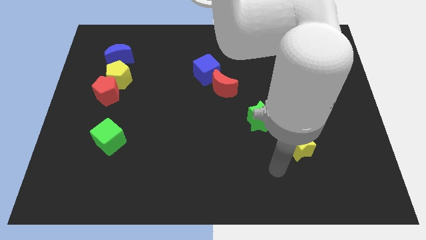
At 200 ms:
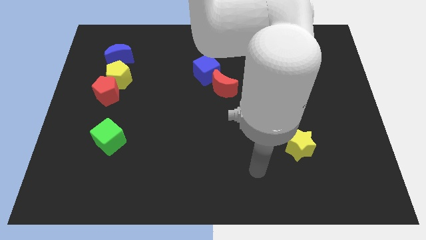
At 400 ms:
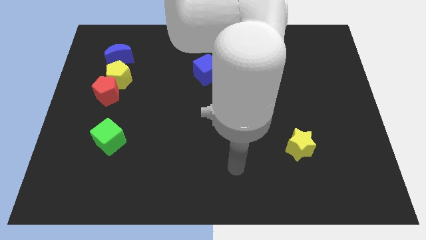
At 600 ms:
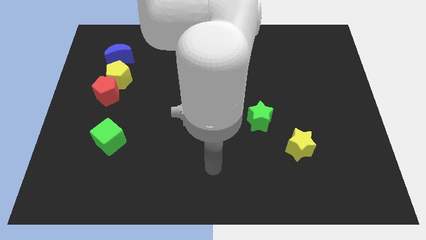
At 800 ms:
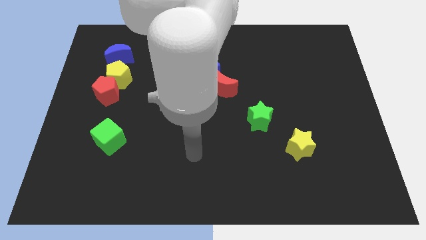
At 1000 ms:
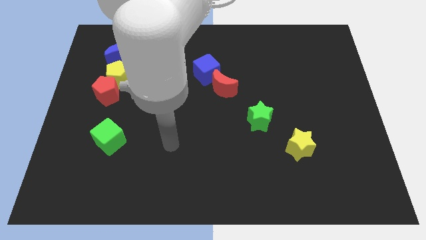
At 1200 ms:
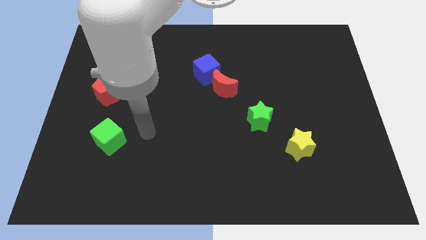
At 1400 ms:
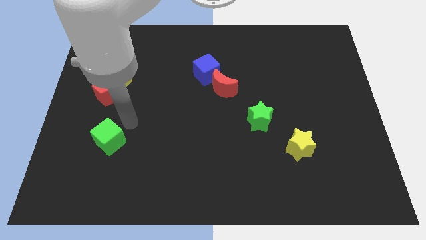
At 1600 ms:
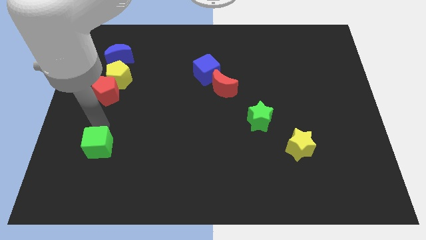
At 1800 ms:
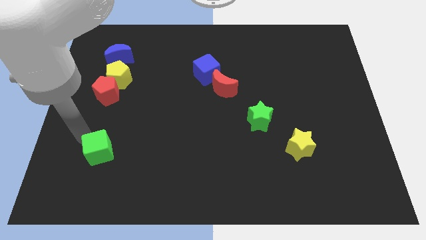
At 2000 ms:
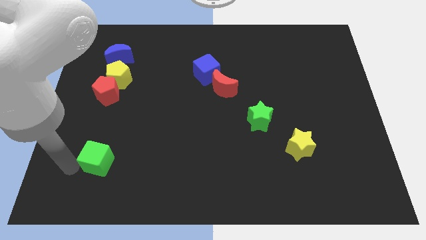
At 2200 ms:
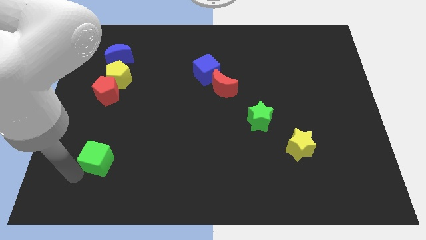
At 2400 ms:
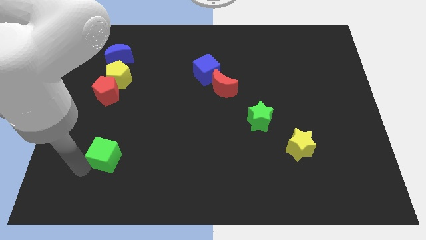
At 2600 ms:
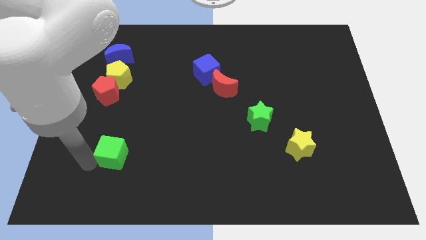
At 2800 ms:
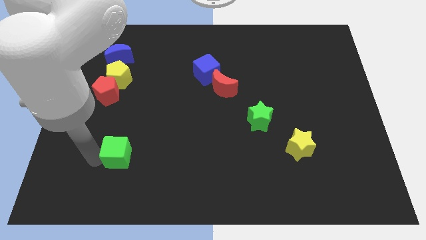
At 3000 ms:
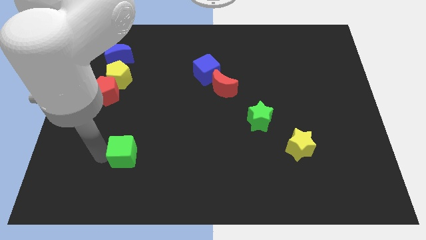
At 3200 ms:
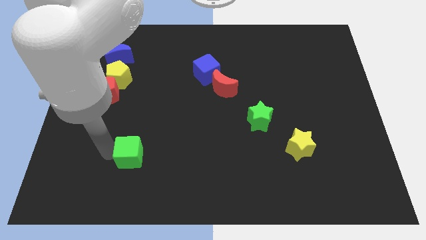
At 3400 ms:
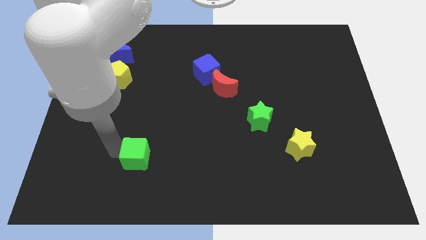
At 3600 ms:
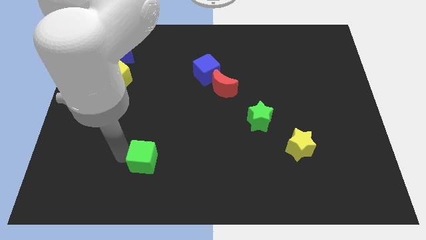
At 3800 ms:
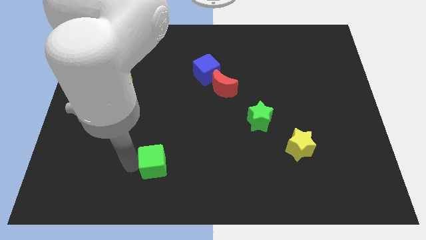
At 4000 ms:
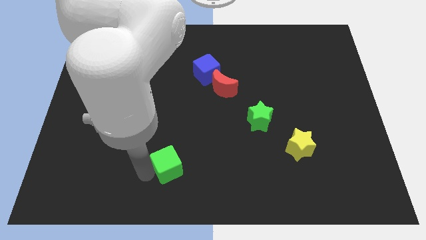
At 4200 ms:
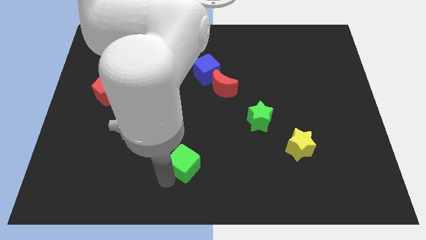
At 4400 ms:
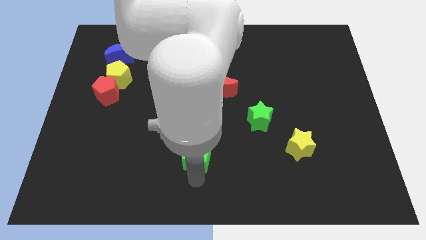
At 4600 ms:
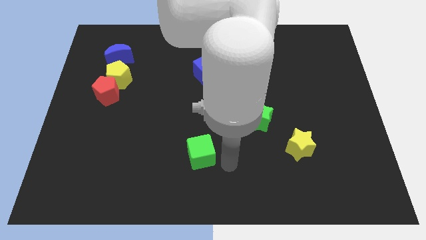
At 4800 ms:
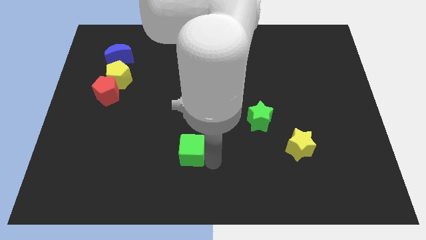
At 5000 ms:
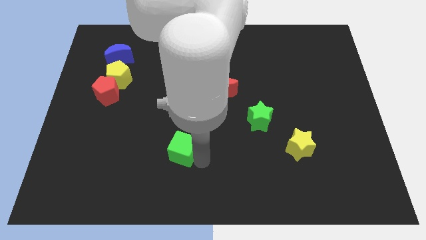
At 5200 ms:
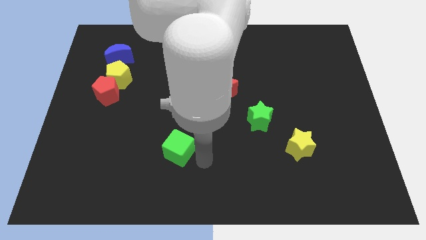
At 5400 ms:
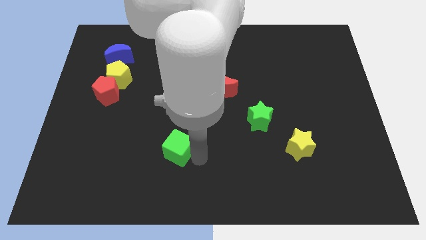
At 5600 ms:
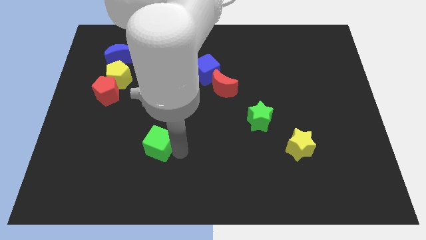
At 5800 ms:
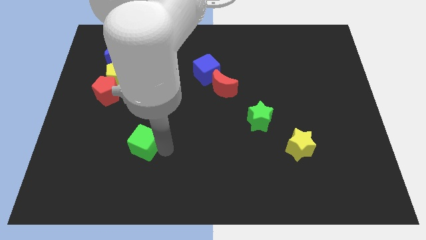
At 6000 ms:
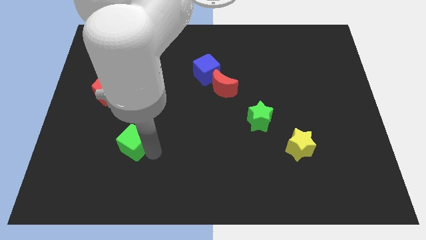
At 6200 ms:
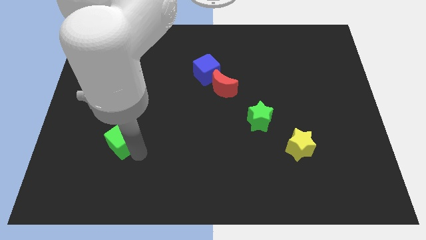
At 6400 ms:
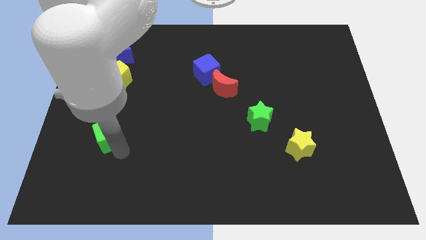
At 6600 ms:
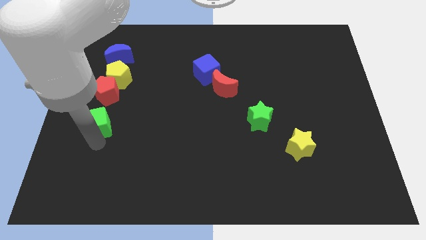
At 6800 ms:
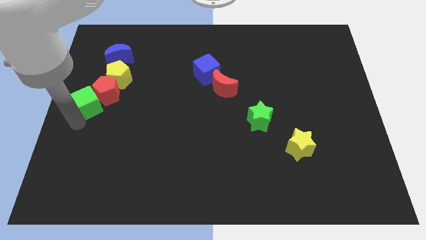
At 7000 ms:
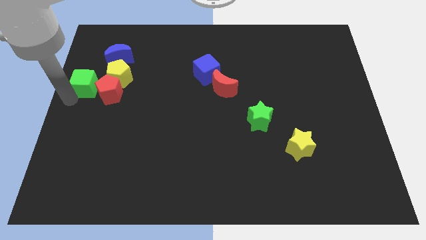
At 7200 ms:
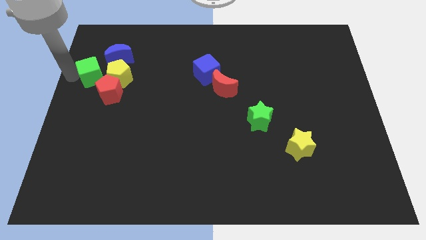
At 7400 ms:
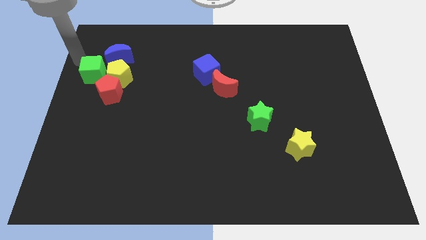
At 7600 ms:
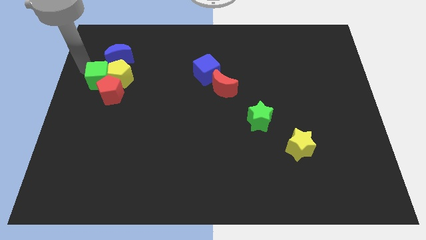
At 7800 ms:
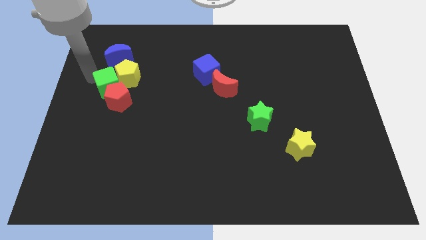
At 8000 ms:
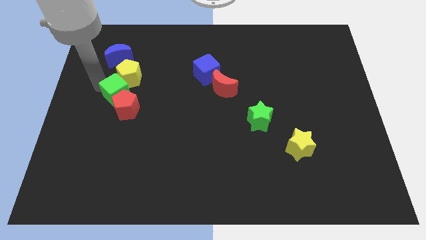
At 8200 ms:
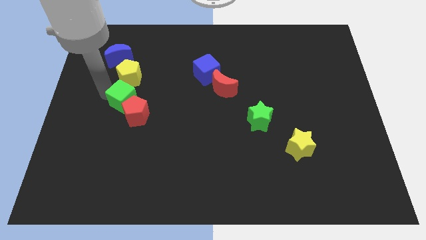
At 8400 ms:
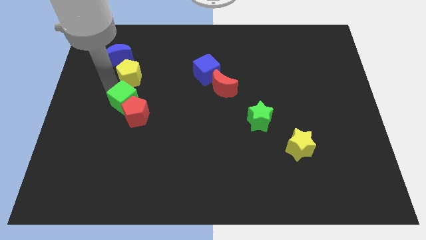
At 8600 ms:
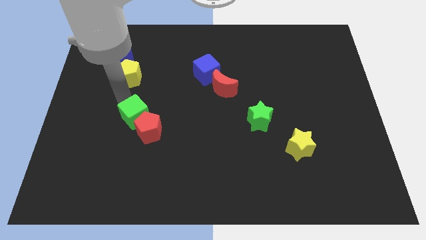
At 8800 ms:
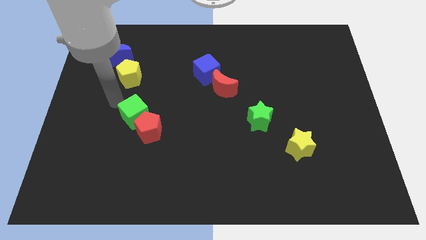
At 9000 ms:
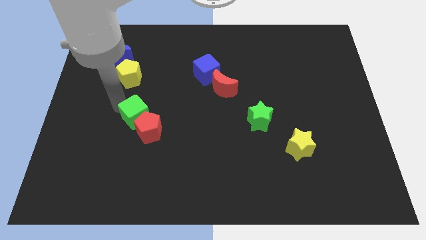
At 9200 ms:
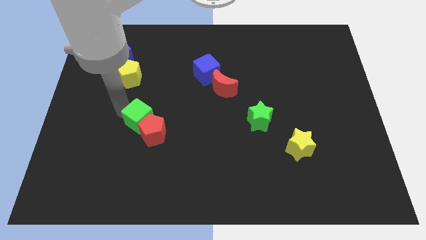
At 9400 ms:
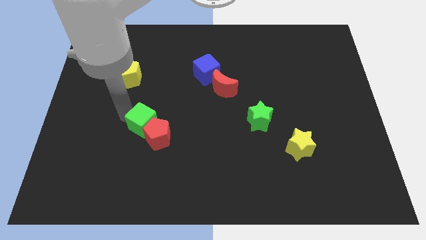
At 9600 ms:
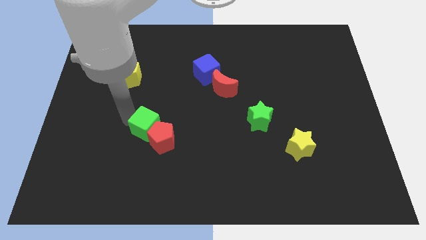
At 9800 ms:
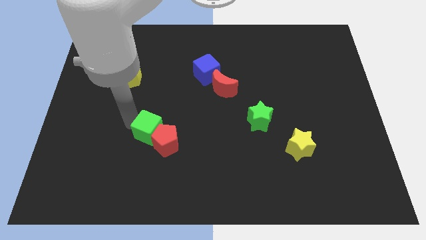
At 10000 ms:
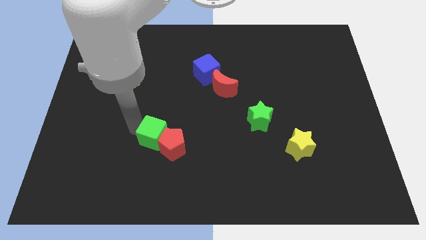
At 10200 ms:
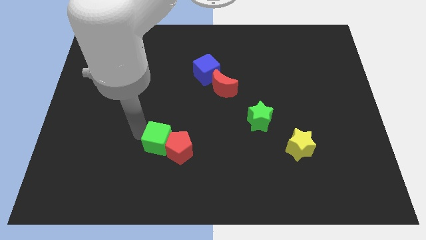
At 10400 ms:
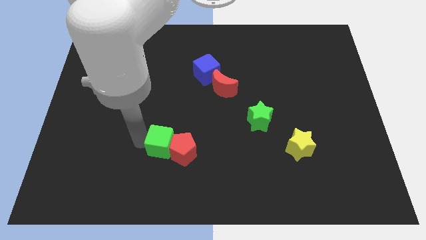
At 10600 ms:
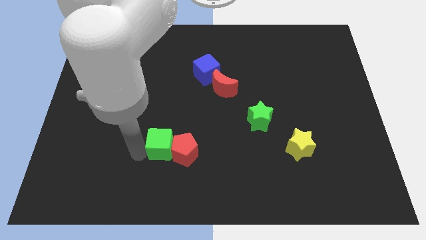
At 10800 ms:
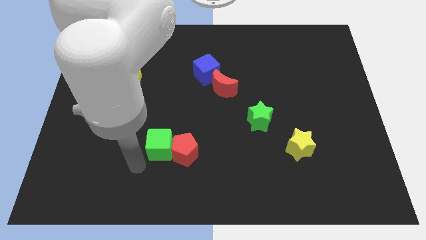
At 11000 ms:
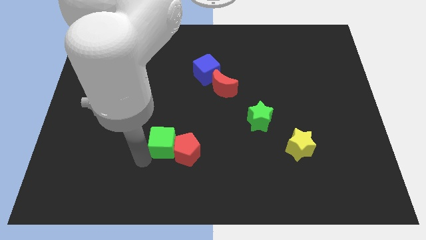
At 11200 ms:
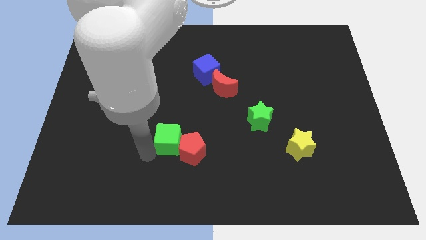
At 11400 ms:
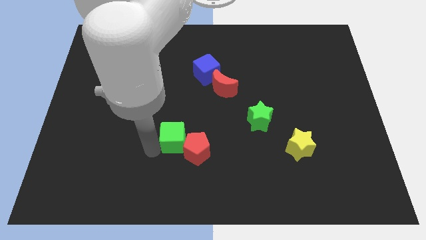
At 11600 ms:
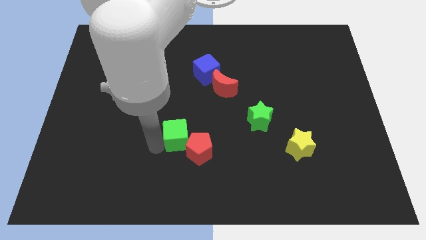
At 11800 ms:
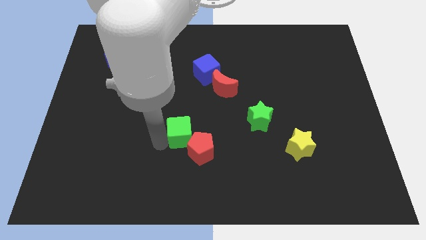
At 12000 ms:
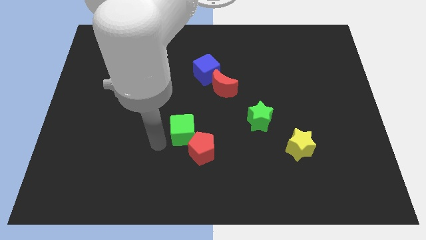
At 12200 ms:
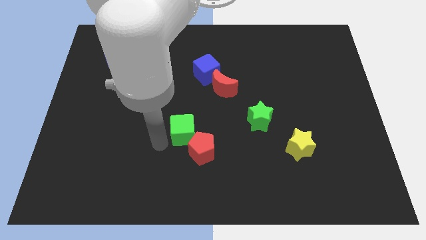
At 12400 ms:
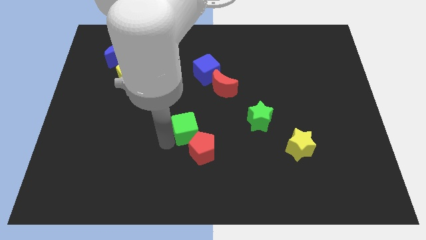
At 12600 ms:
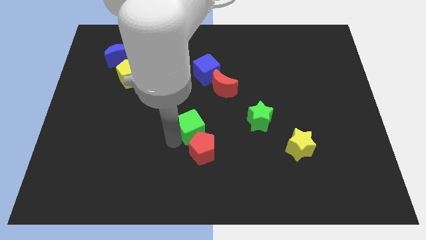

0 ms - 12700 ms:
move the green cube left of the green star
